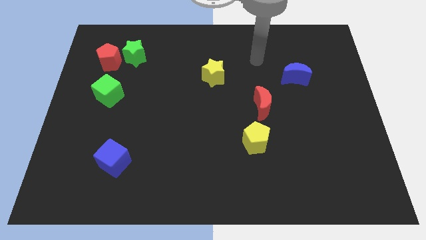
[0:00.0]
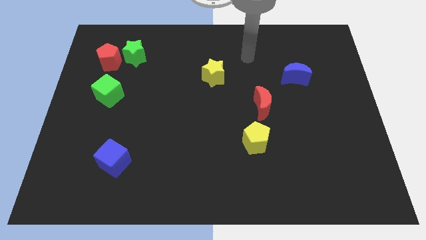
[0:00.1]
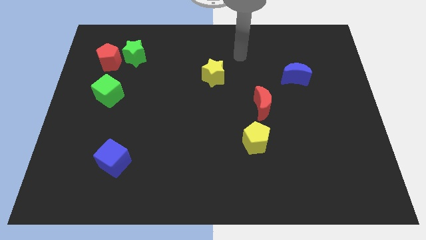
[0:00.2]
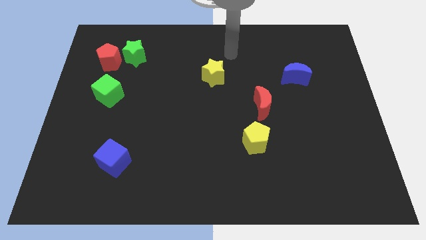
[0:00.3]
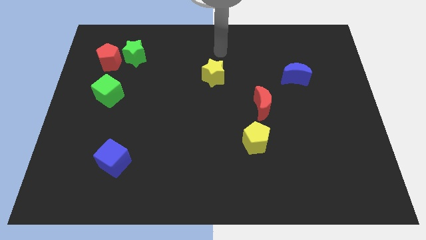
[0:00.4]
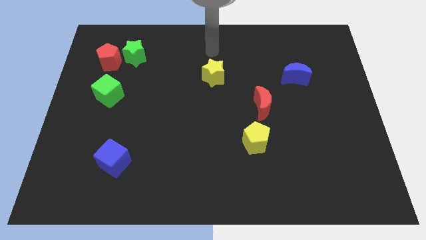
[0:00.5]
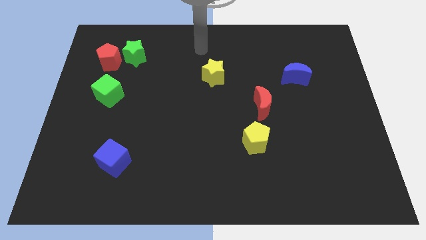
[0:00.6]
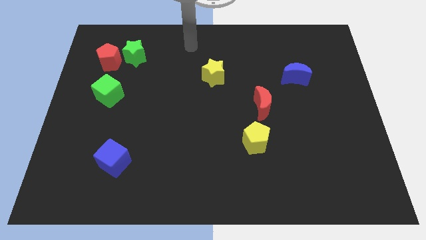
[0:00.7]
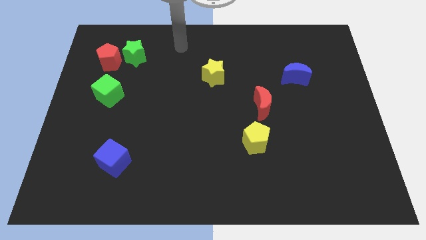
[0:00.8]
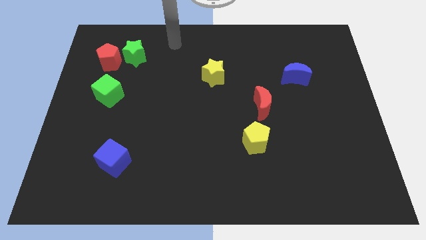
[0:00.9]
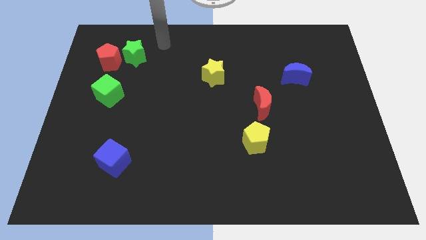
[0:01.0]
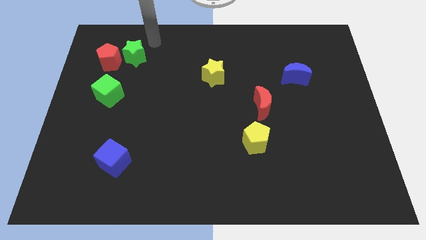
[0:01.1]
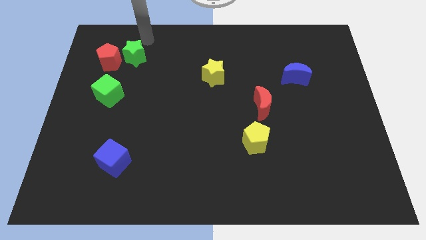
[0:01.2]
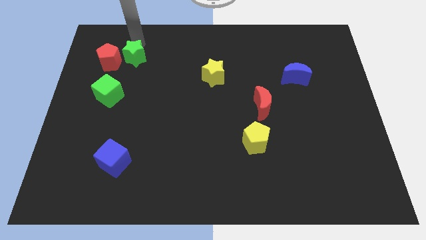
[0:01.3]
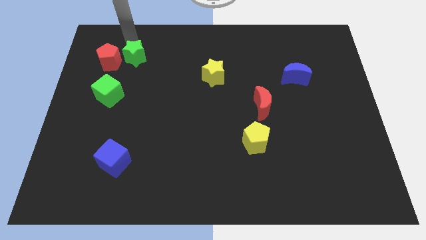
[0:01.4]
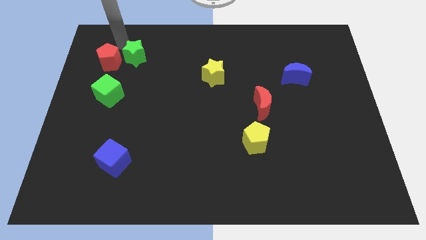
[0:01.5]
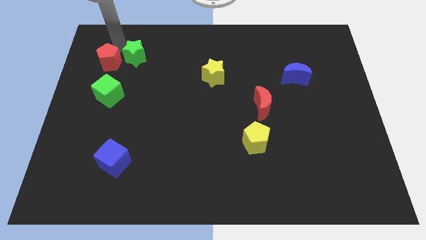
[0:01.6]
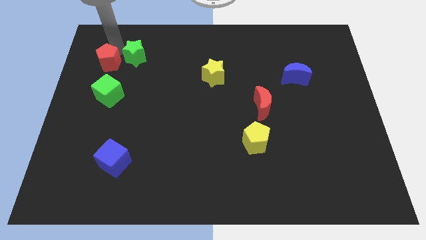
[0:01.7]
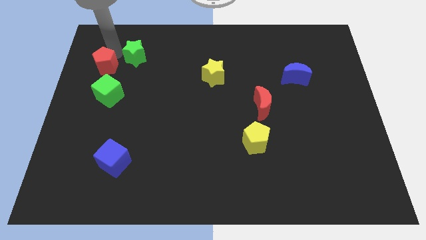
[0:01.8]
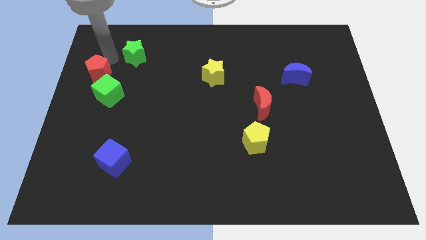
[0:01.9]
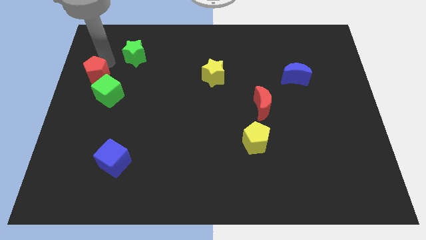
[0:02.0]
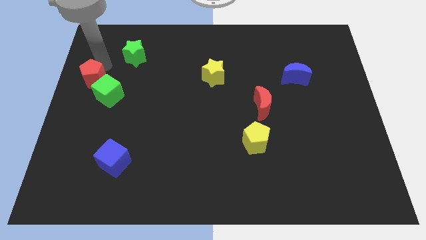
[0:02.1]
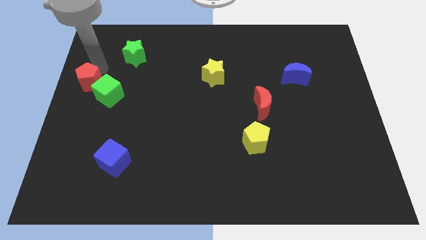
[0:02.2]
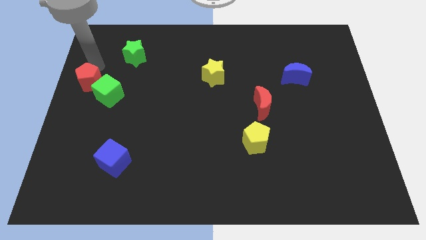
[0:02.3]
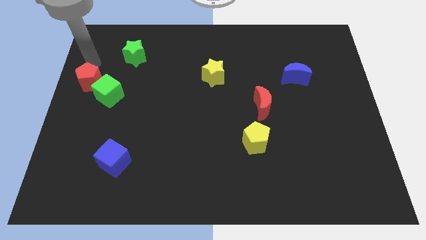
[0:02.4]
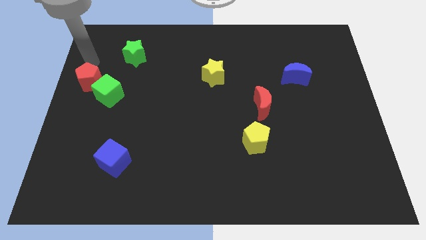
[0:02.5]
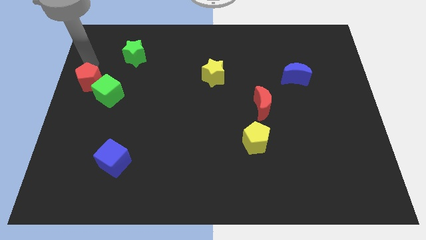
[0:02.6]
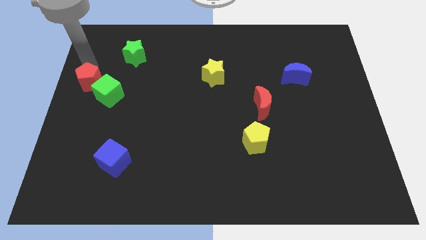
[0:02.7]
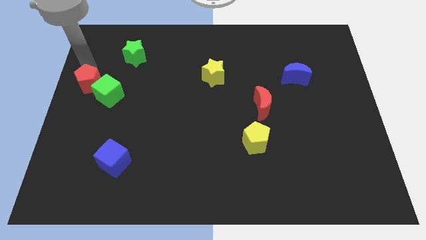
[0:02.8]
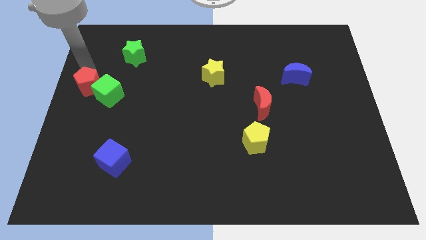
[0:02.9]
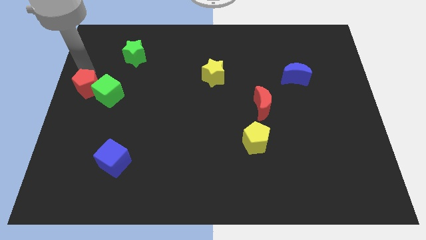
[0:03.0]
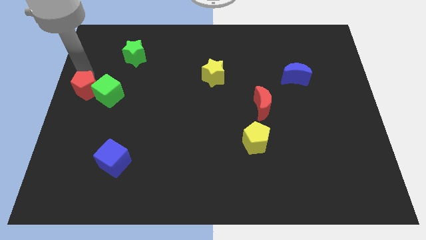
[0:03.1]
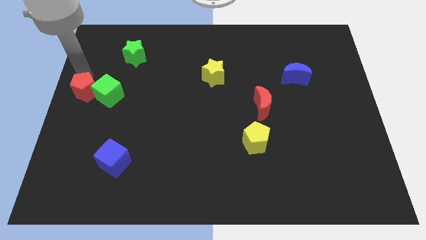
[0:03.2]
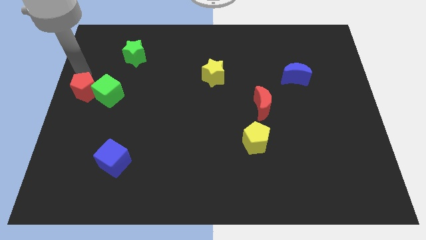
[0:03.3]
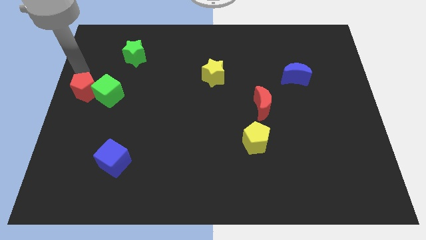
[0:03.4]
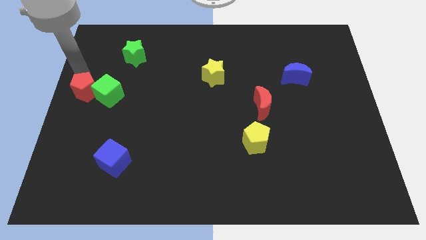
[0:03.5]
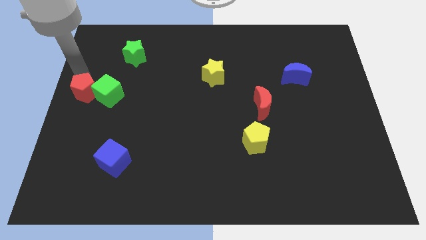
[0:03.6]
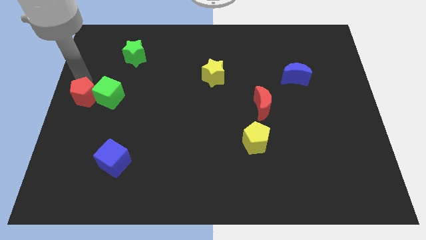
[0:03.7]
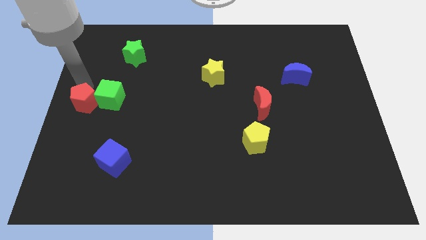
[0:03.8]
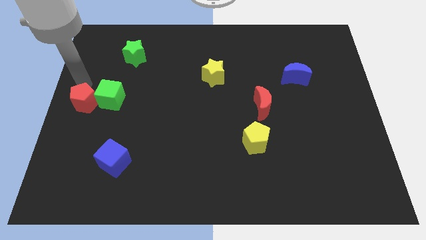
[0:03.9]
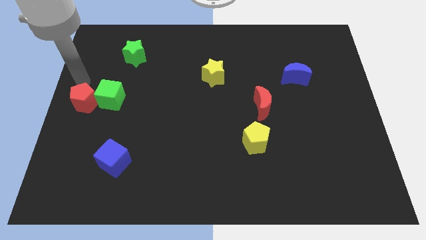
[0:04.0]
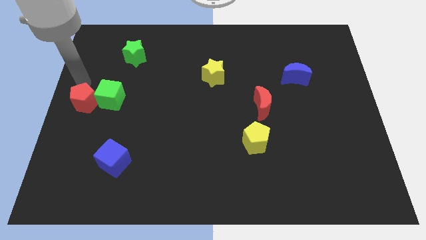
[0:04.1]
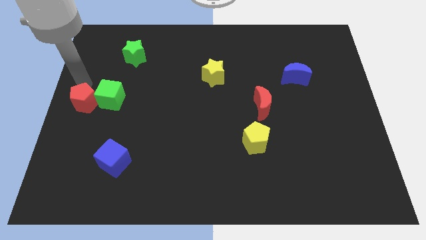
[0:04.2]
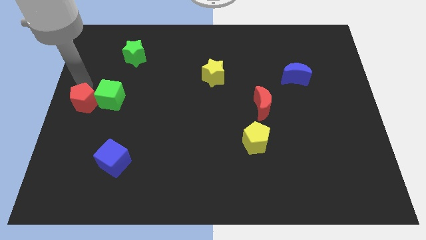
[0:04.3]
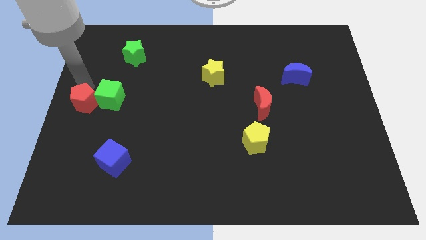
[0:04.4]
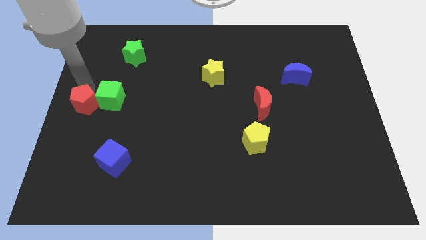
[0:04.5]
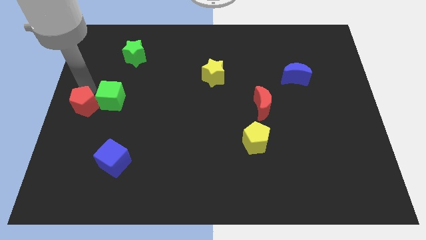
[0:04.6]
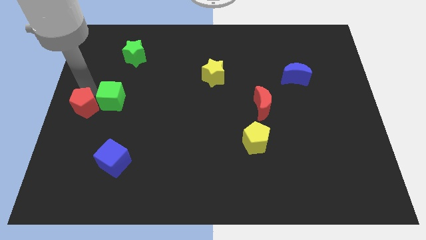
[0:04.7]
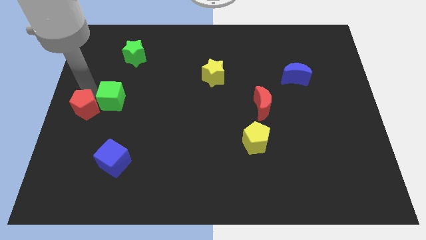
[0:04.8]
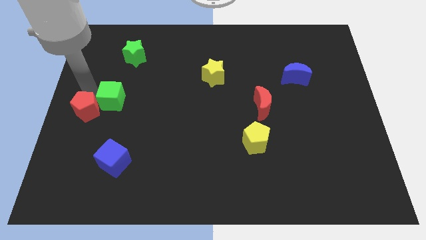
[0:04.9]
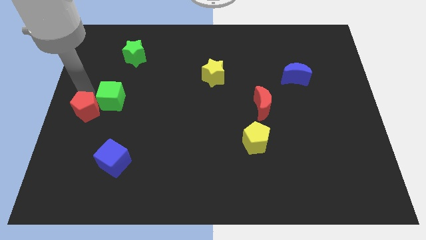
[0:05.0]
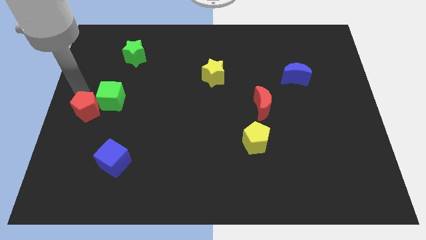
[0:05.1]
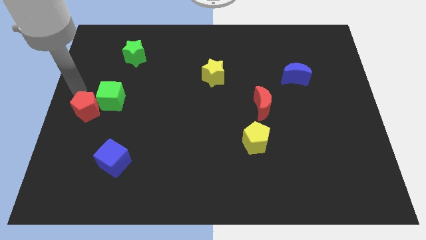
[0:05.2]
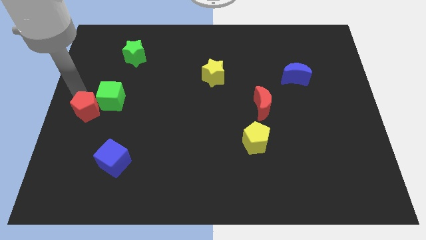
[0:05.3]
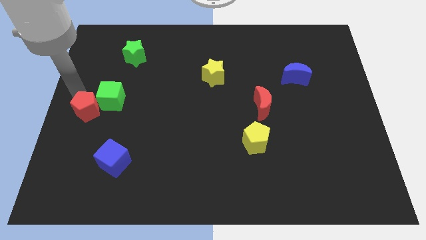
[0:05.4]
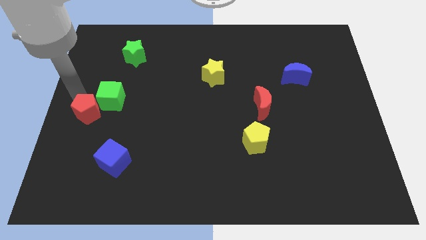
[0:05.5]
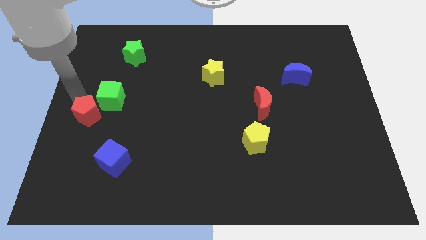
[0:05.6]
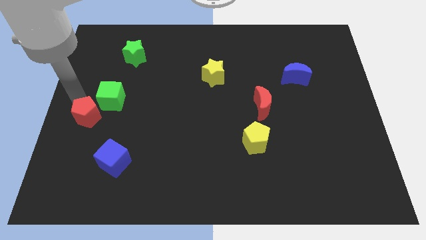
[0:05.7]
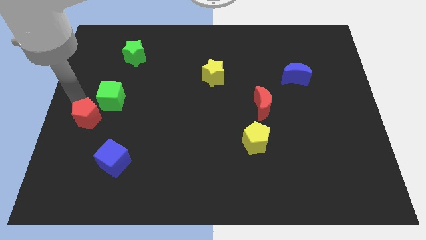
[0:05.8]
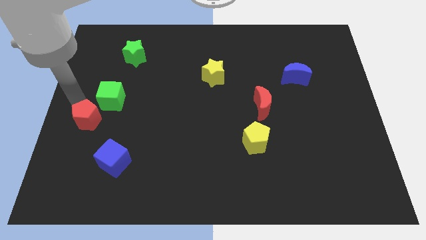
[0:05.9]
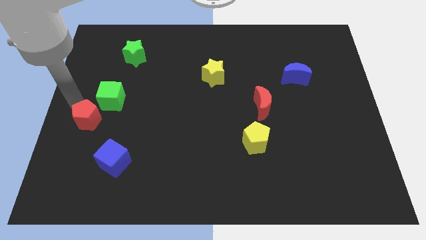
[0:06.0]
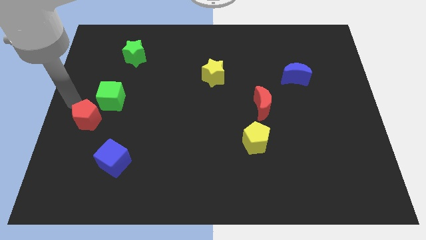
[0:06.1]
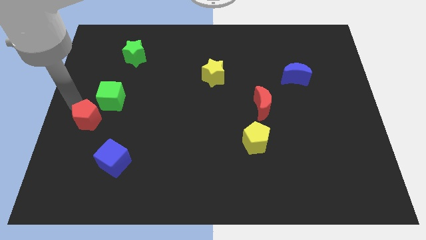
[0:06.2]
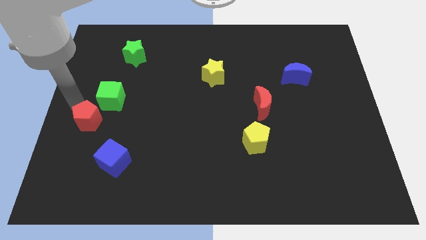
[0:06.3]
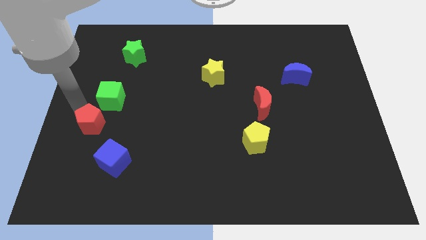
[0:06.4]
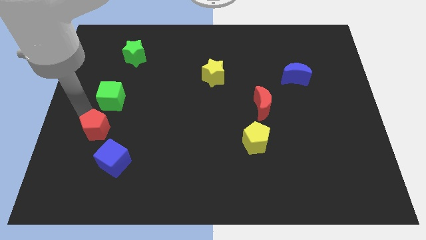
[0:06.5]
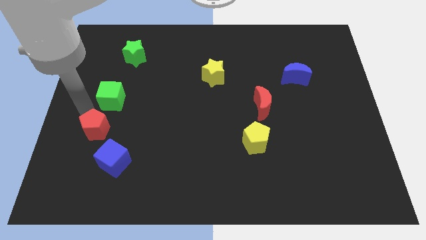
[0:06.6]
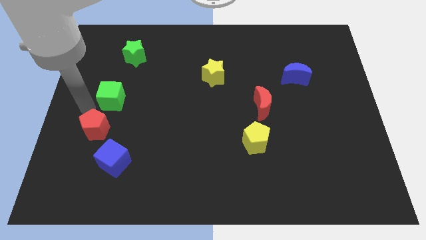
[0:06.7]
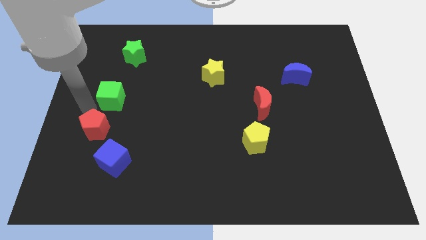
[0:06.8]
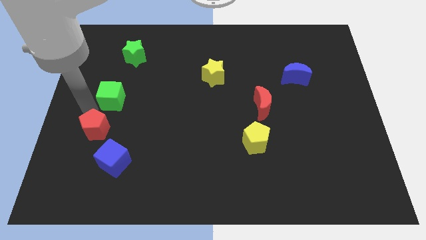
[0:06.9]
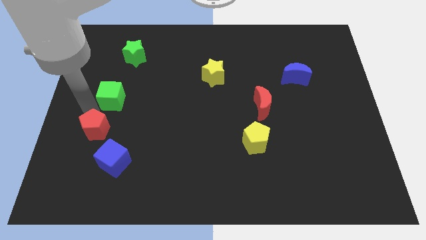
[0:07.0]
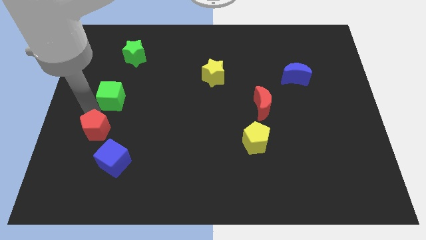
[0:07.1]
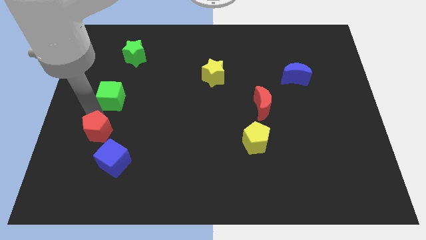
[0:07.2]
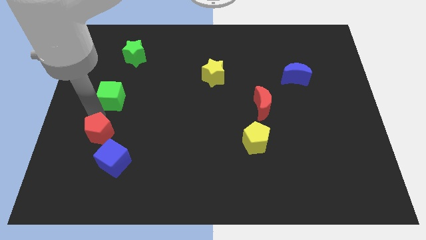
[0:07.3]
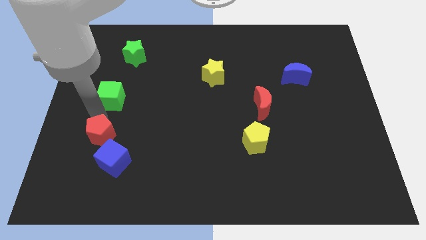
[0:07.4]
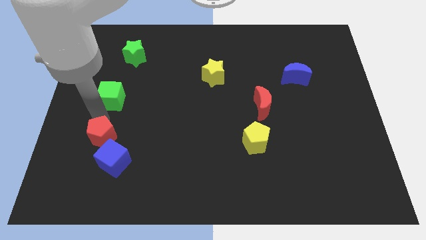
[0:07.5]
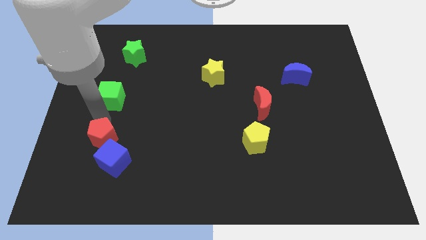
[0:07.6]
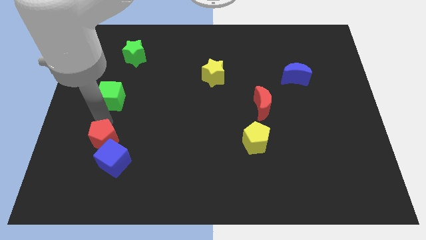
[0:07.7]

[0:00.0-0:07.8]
put the red pentagon towards the blue cube
